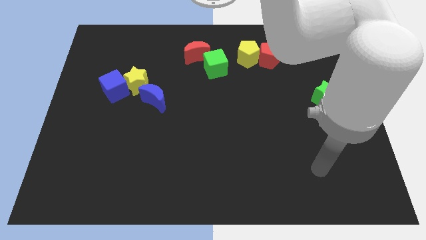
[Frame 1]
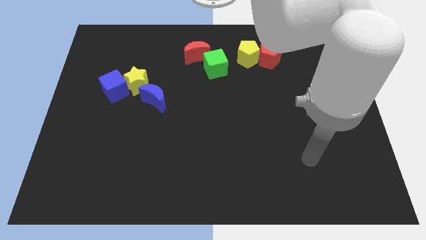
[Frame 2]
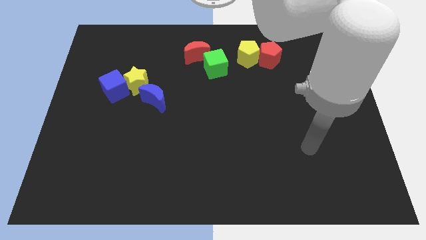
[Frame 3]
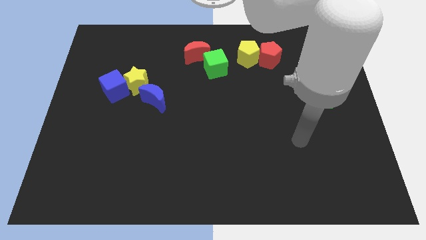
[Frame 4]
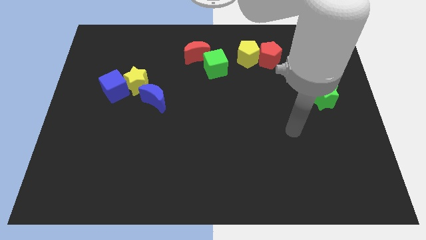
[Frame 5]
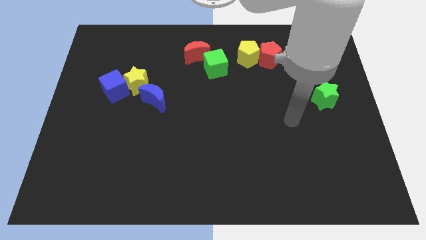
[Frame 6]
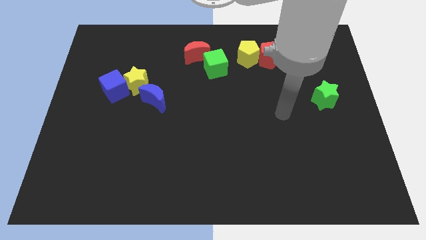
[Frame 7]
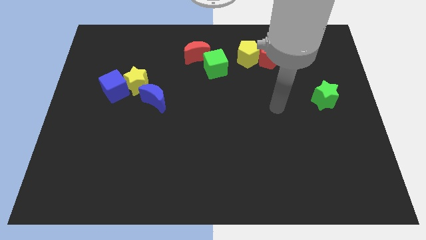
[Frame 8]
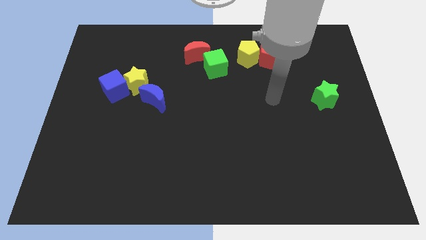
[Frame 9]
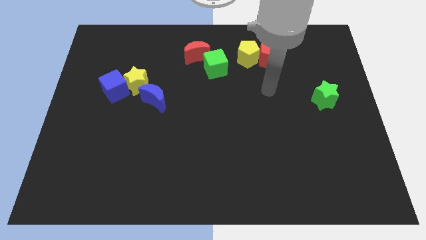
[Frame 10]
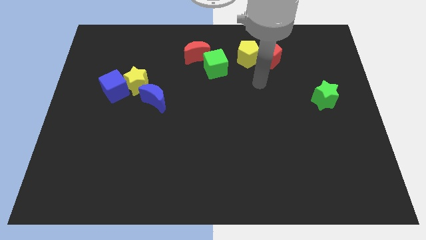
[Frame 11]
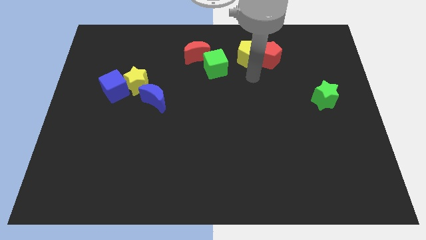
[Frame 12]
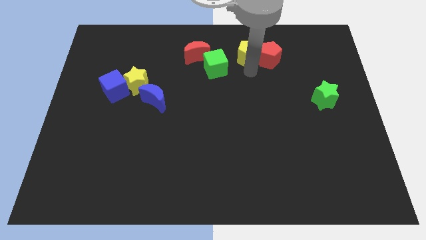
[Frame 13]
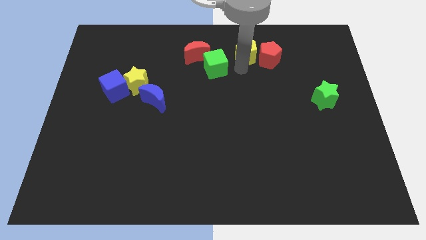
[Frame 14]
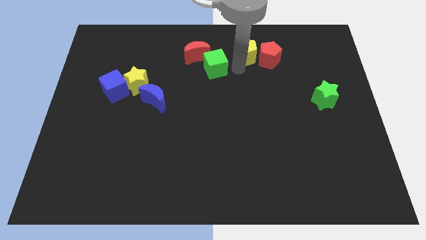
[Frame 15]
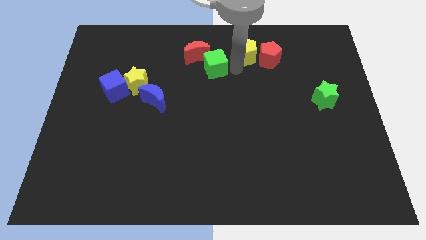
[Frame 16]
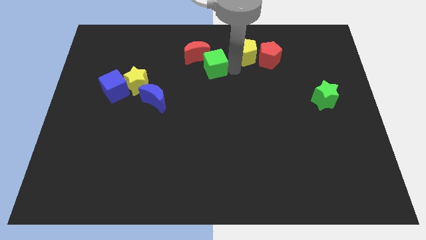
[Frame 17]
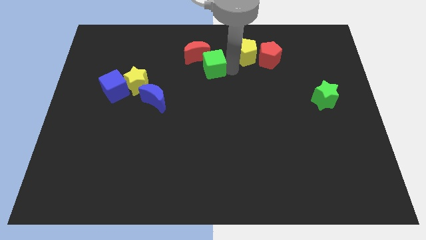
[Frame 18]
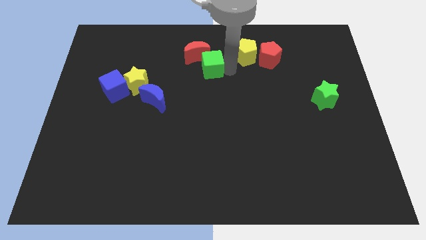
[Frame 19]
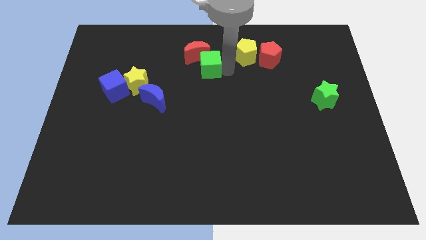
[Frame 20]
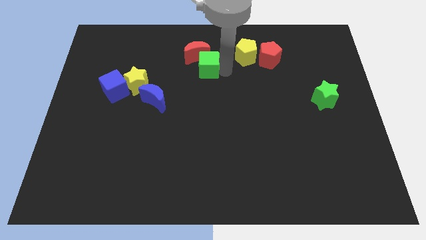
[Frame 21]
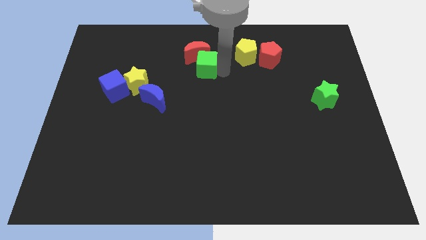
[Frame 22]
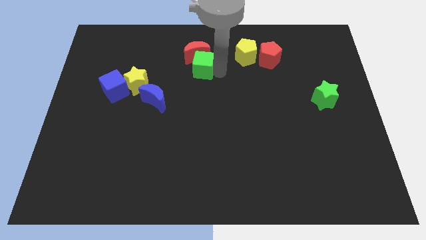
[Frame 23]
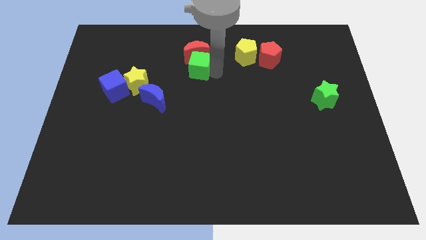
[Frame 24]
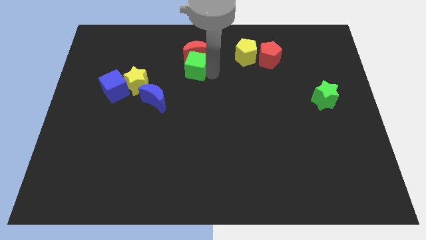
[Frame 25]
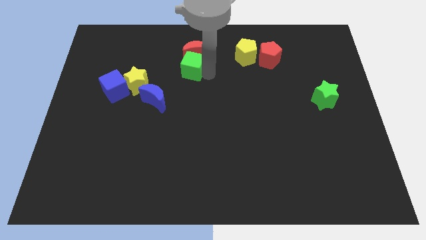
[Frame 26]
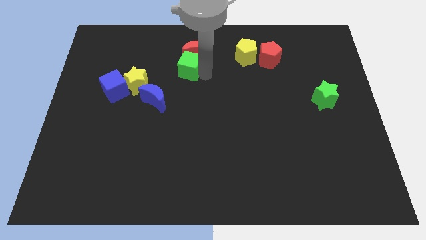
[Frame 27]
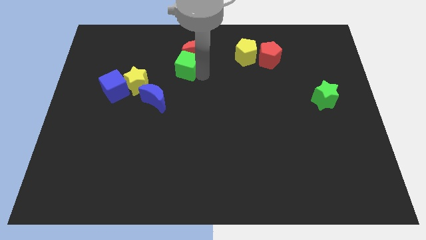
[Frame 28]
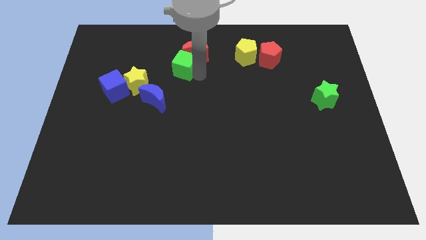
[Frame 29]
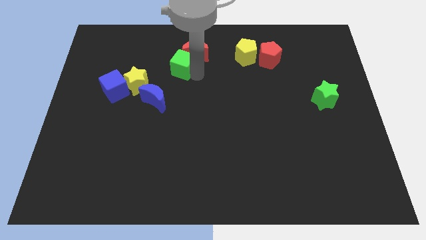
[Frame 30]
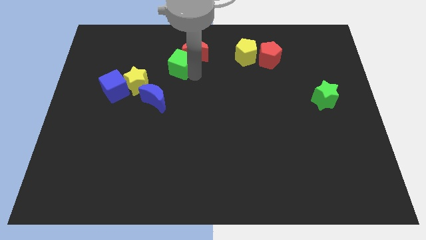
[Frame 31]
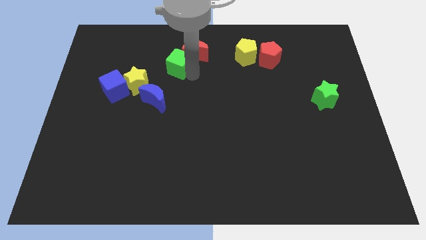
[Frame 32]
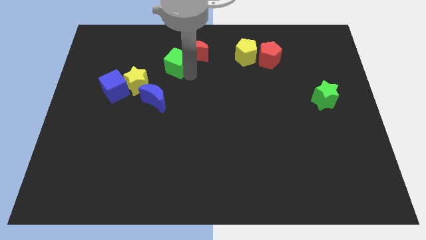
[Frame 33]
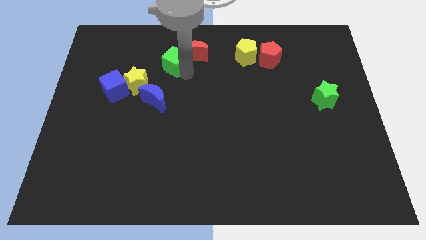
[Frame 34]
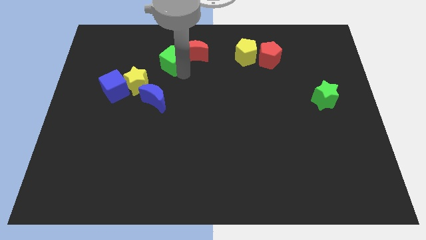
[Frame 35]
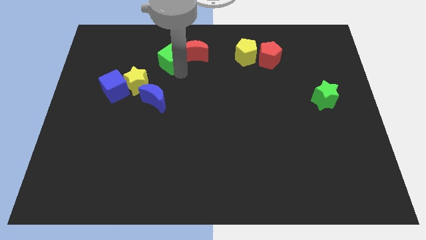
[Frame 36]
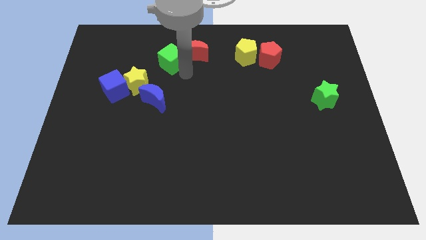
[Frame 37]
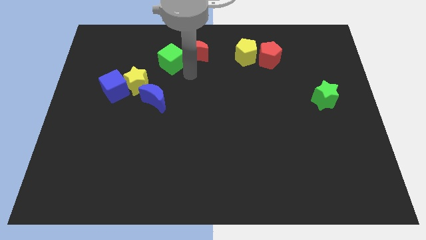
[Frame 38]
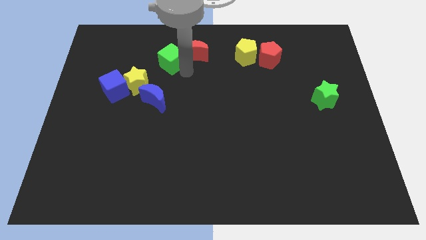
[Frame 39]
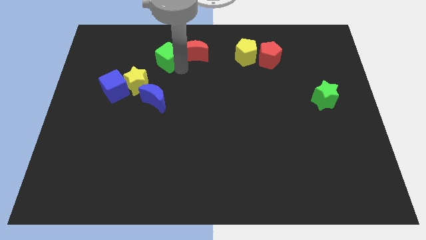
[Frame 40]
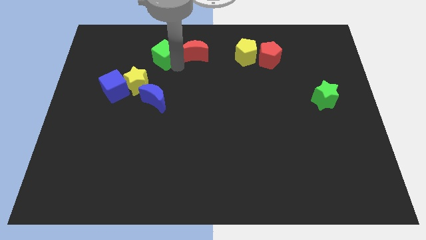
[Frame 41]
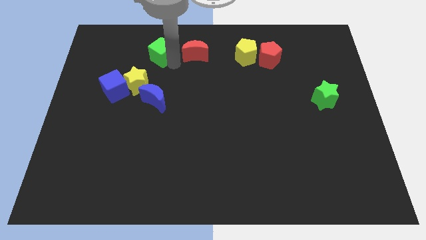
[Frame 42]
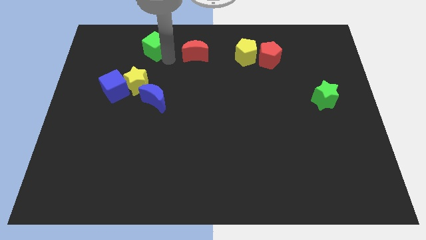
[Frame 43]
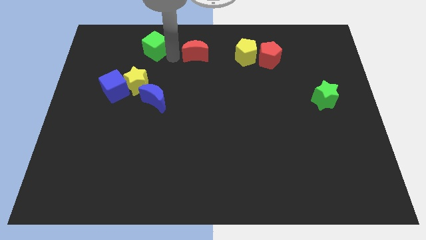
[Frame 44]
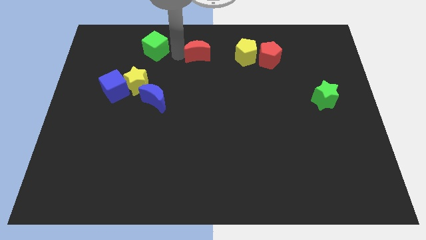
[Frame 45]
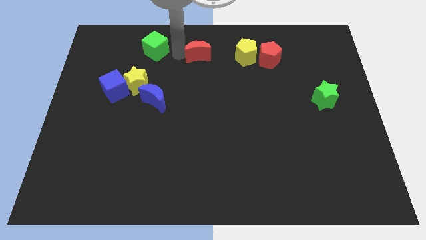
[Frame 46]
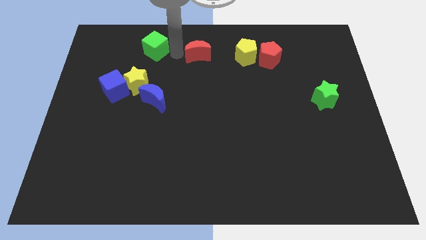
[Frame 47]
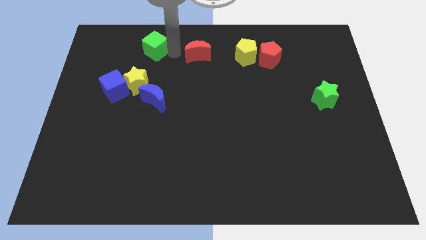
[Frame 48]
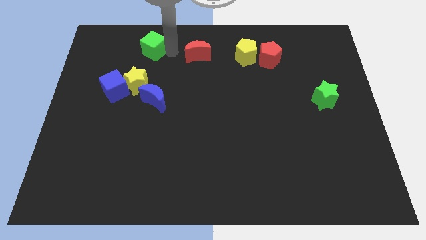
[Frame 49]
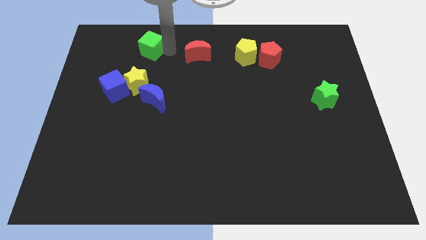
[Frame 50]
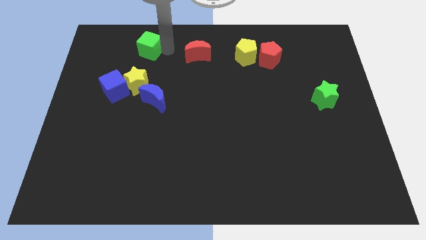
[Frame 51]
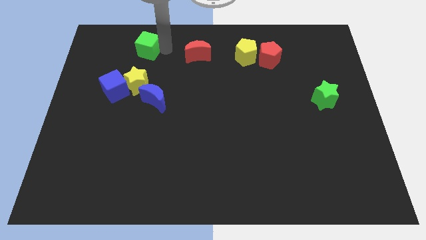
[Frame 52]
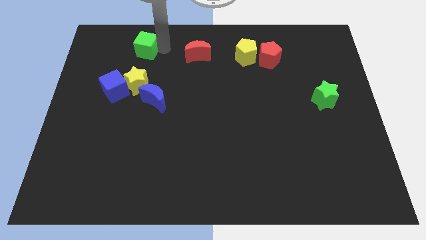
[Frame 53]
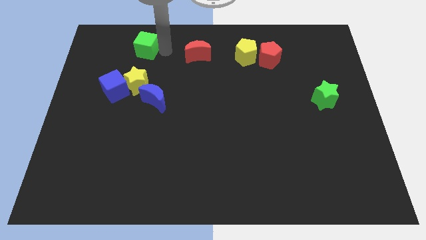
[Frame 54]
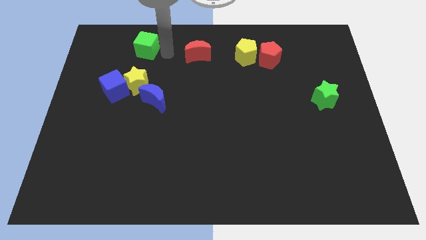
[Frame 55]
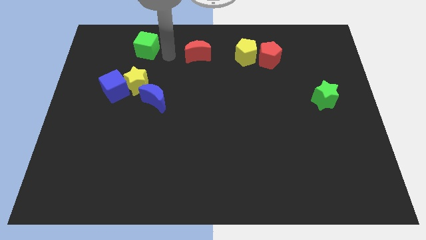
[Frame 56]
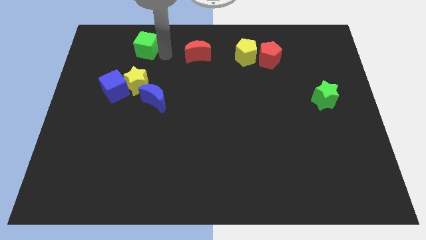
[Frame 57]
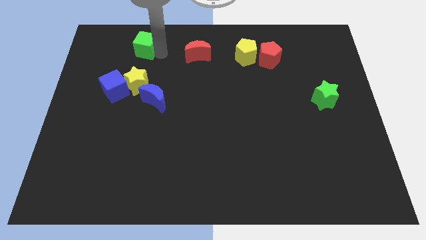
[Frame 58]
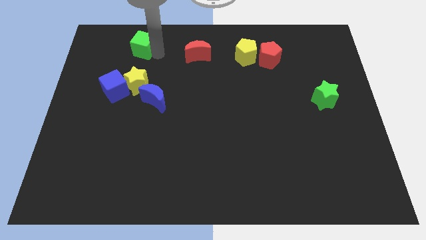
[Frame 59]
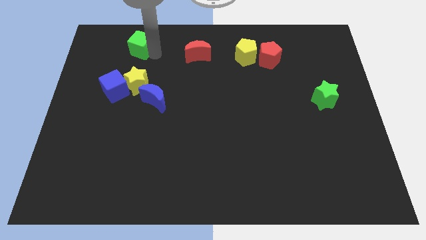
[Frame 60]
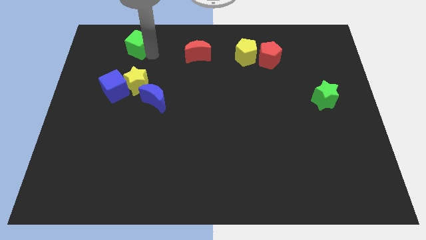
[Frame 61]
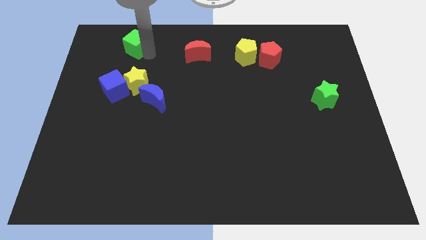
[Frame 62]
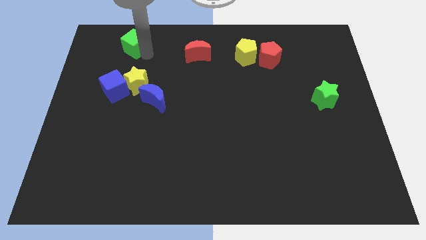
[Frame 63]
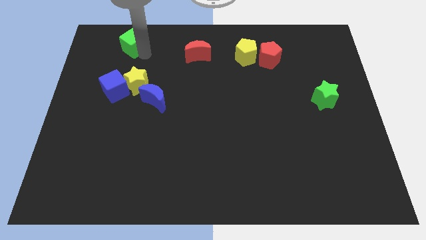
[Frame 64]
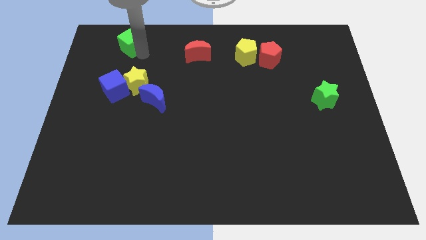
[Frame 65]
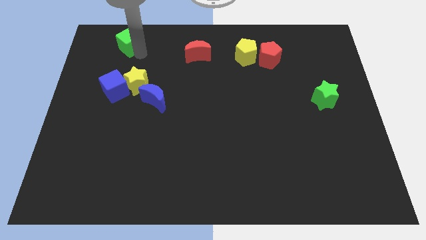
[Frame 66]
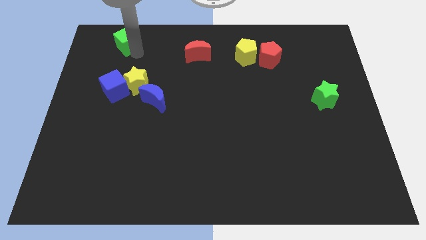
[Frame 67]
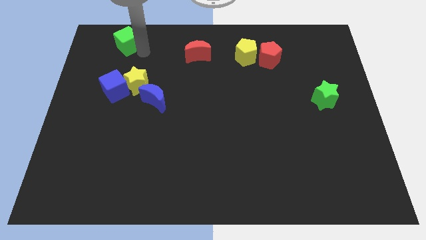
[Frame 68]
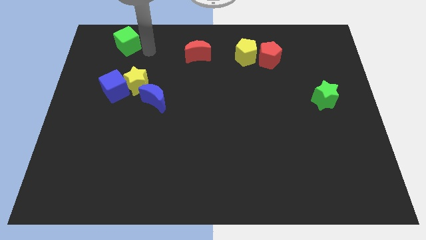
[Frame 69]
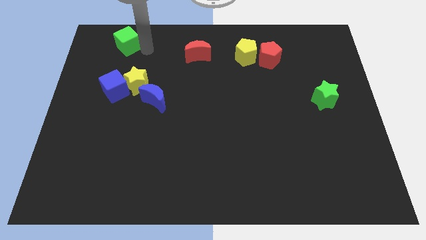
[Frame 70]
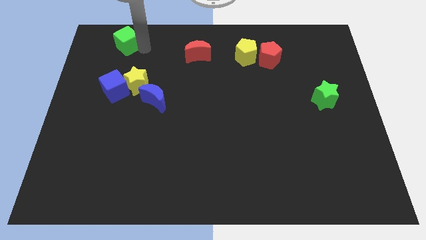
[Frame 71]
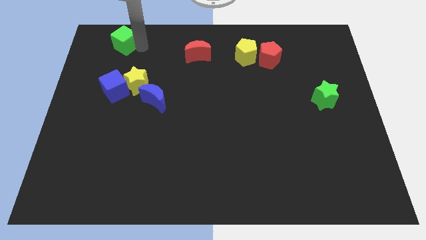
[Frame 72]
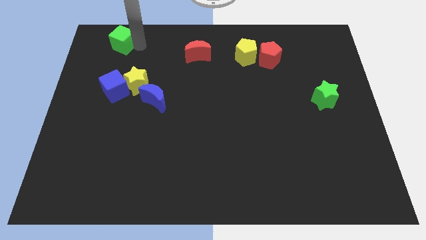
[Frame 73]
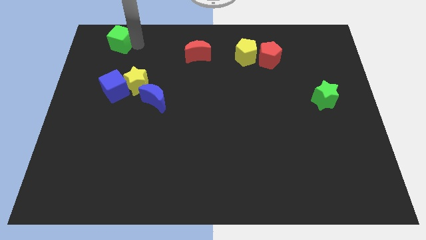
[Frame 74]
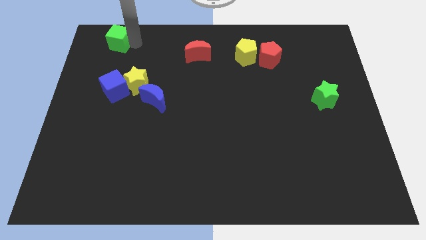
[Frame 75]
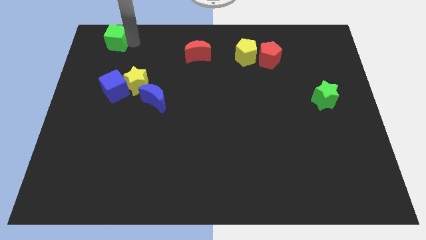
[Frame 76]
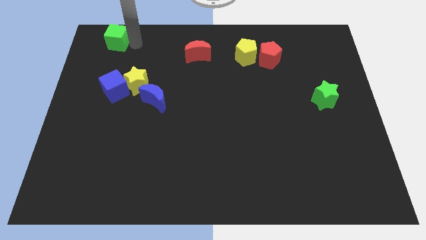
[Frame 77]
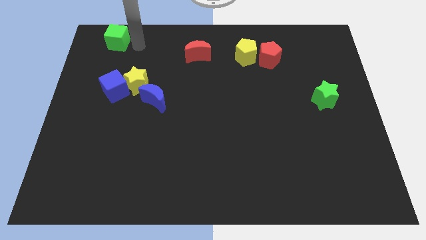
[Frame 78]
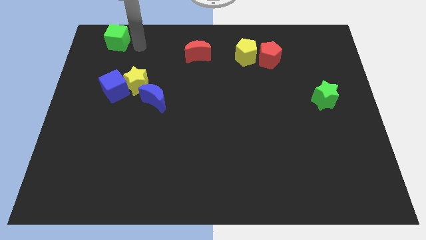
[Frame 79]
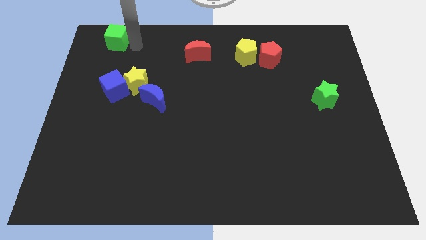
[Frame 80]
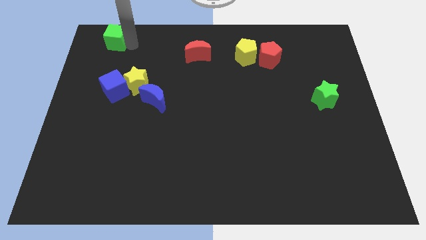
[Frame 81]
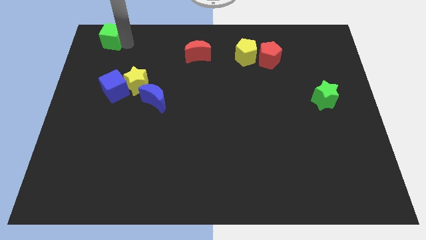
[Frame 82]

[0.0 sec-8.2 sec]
move the green cube to the top left corner
